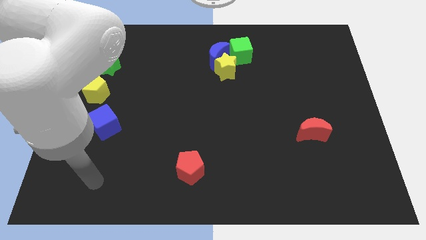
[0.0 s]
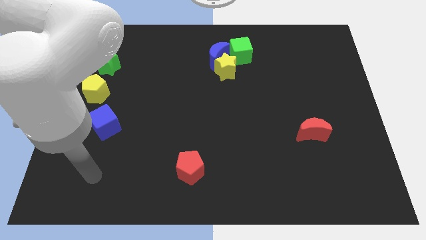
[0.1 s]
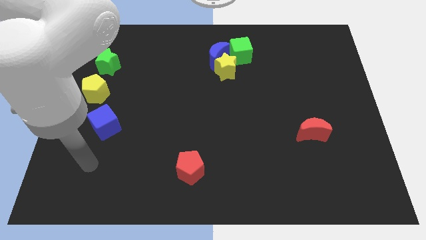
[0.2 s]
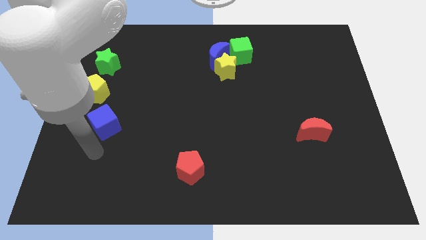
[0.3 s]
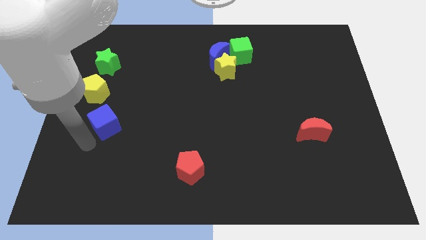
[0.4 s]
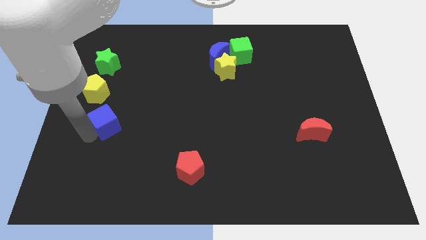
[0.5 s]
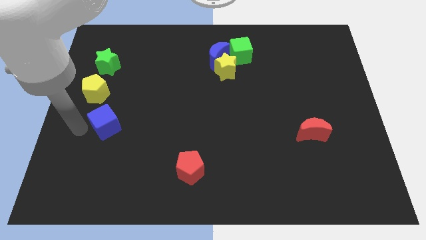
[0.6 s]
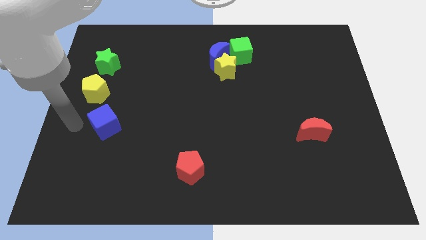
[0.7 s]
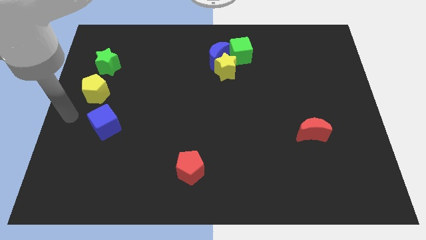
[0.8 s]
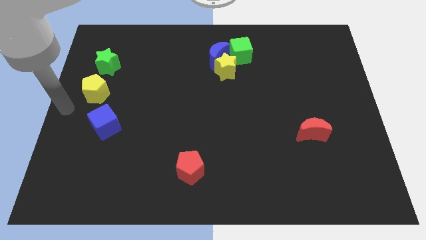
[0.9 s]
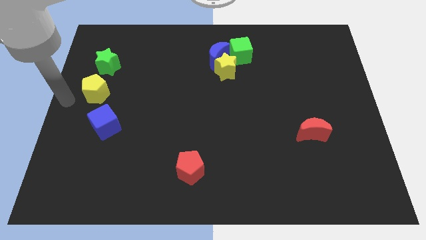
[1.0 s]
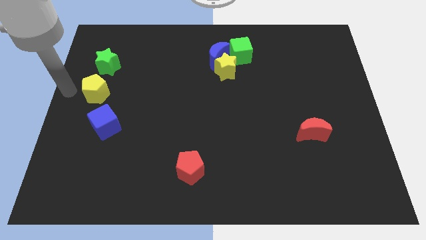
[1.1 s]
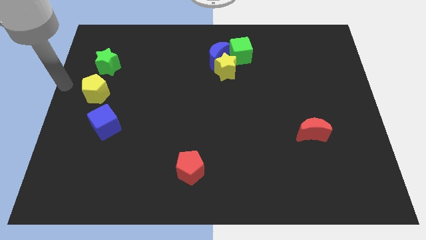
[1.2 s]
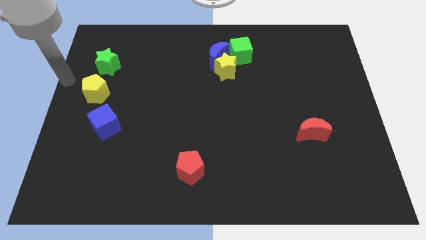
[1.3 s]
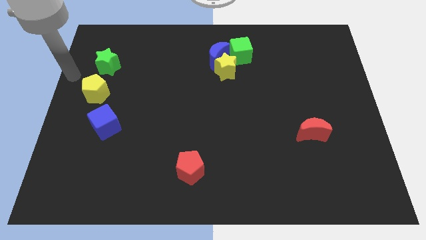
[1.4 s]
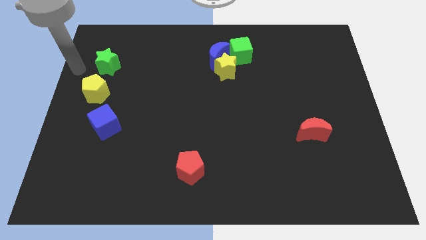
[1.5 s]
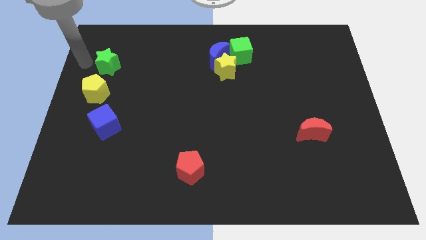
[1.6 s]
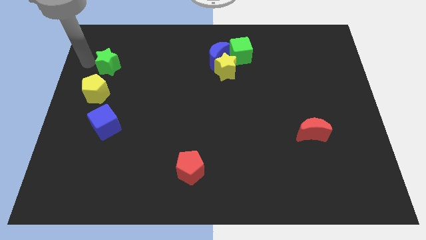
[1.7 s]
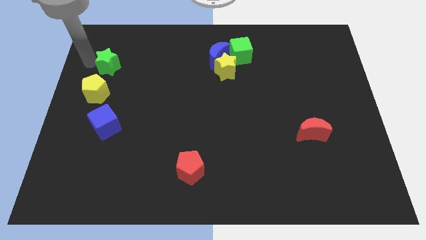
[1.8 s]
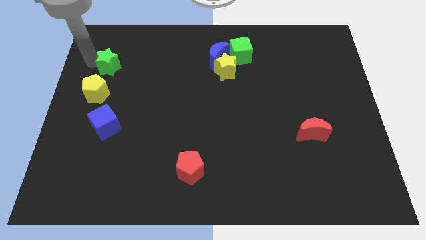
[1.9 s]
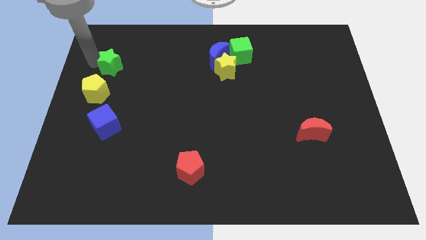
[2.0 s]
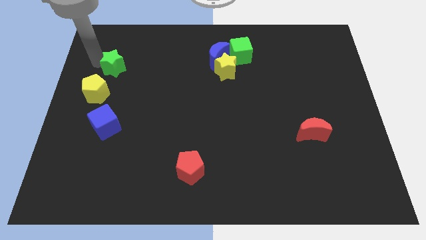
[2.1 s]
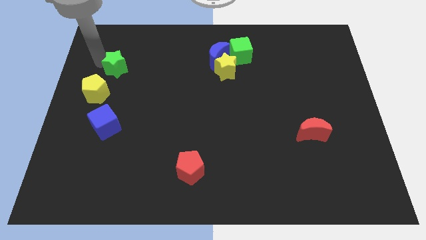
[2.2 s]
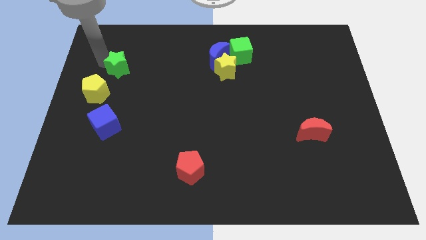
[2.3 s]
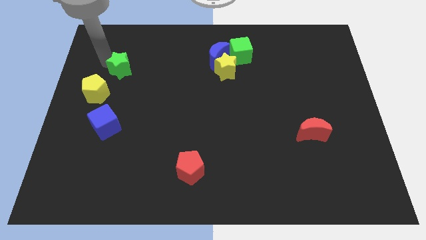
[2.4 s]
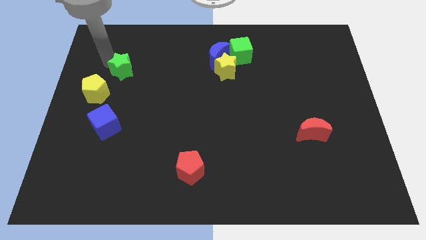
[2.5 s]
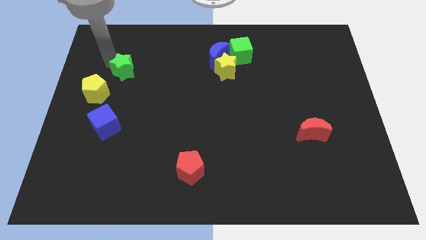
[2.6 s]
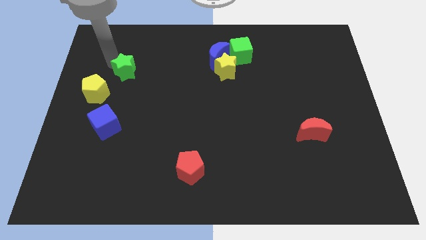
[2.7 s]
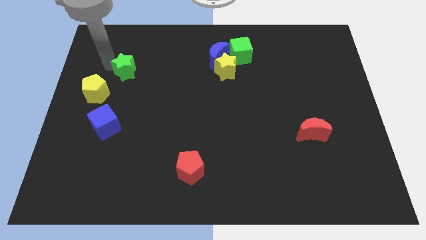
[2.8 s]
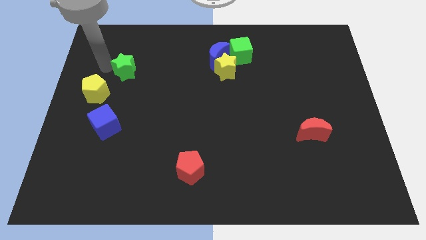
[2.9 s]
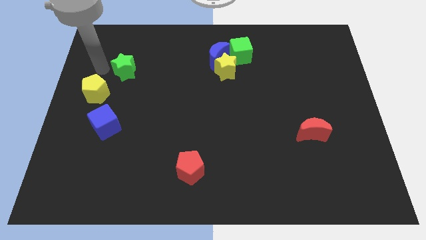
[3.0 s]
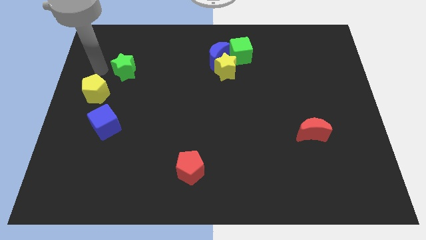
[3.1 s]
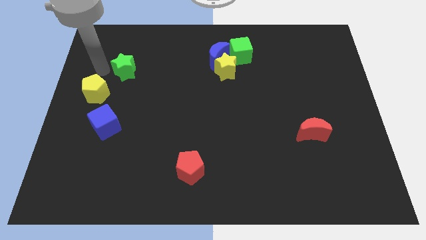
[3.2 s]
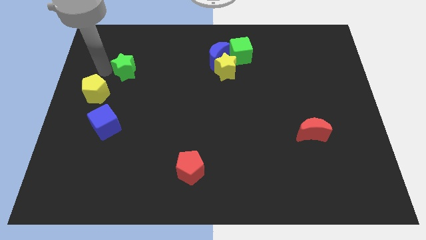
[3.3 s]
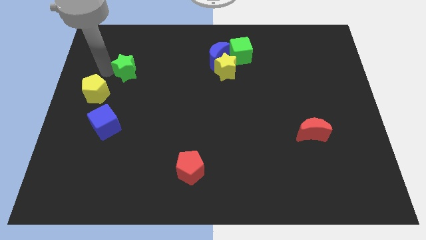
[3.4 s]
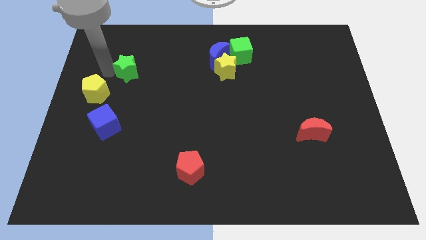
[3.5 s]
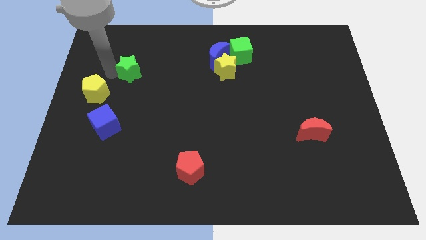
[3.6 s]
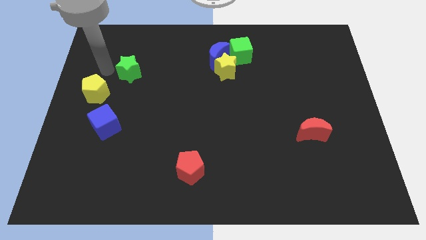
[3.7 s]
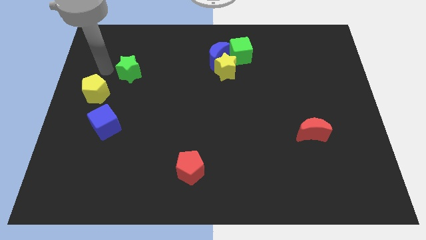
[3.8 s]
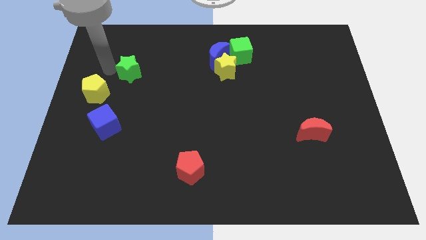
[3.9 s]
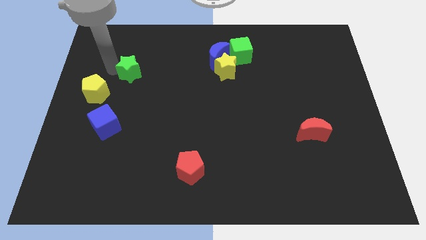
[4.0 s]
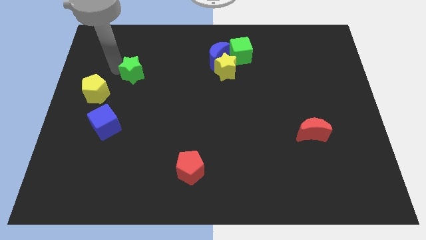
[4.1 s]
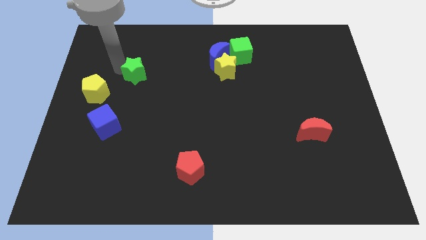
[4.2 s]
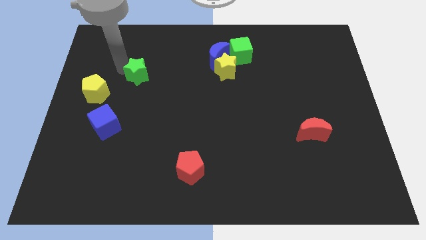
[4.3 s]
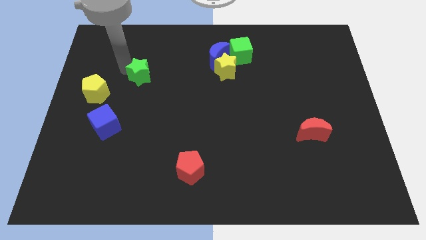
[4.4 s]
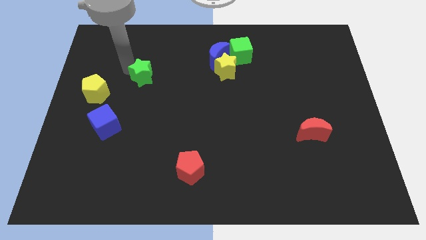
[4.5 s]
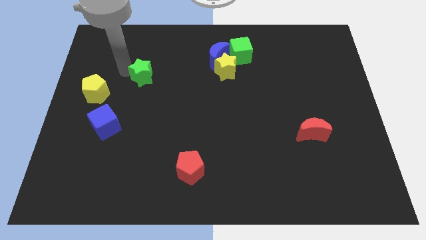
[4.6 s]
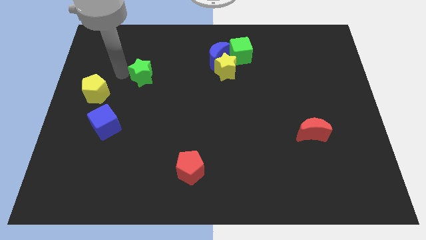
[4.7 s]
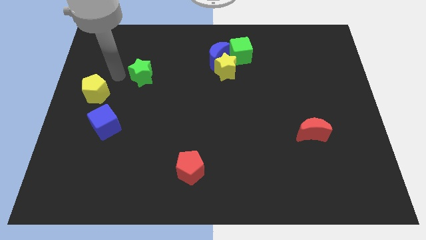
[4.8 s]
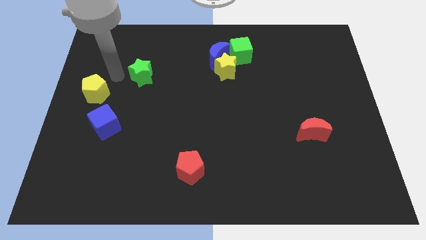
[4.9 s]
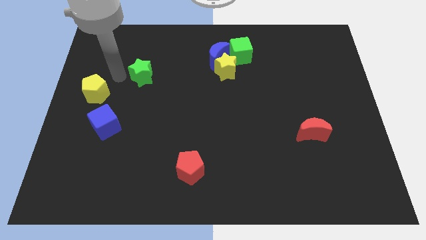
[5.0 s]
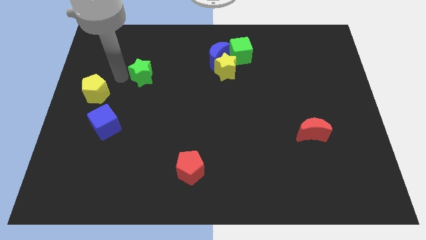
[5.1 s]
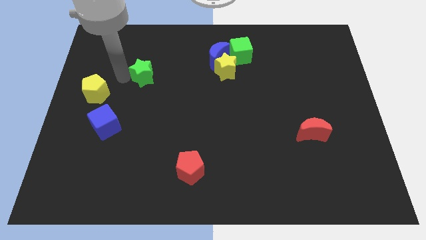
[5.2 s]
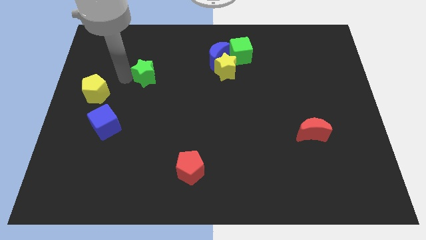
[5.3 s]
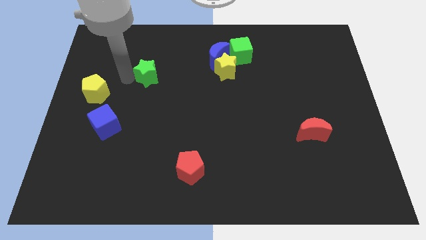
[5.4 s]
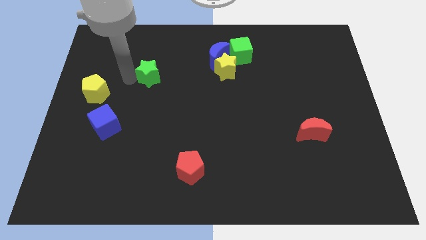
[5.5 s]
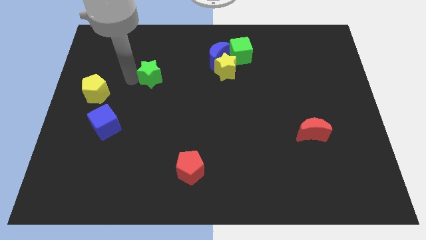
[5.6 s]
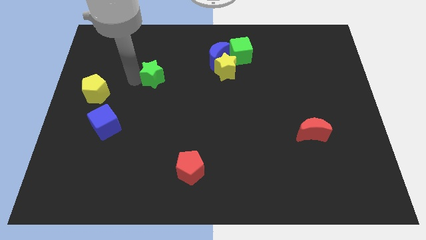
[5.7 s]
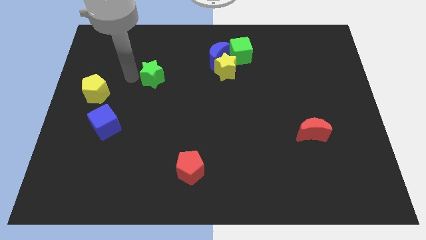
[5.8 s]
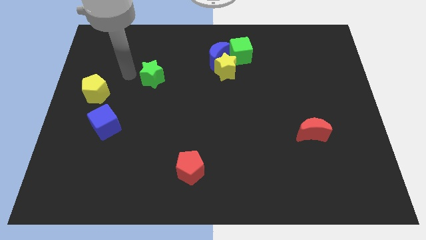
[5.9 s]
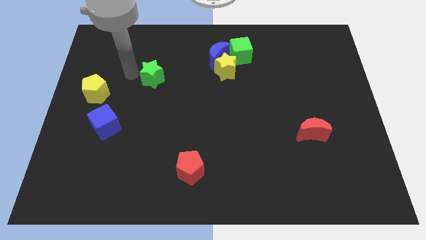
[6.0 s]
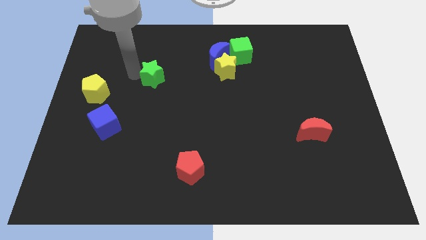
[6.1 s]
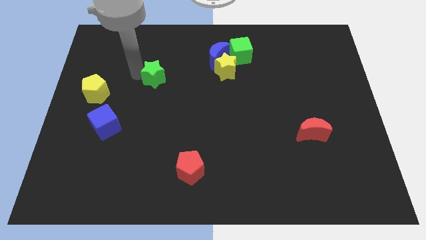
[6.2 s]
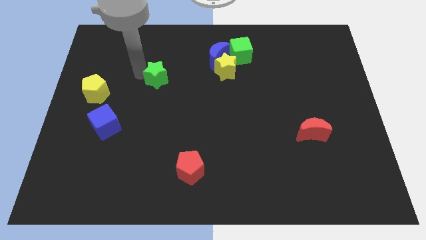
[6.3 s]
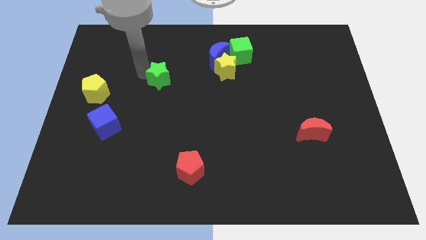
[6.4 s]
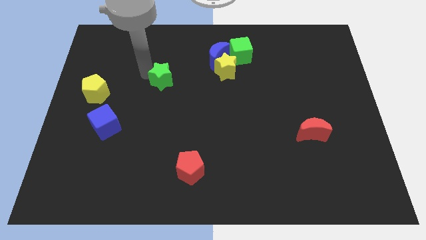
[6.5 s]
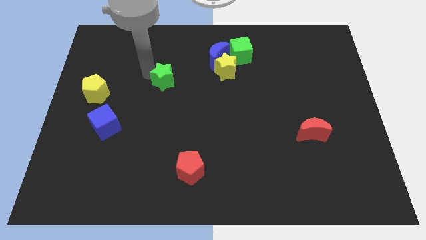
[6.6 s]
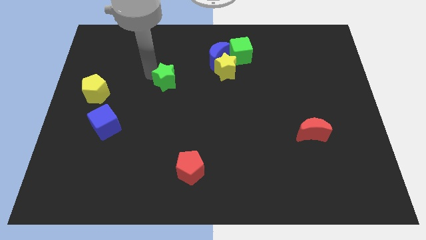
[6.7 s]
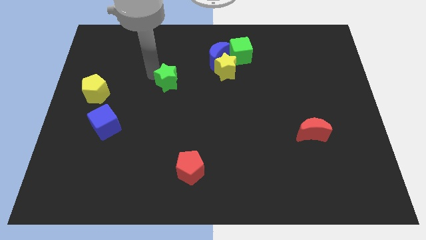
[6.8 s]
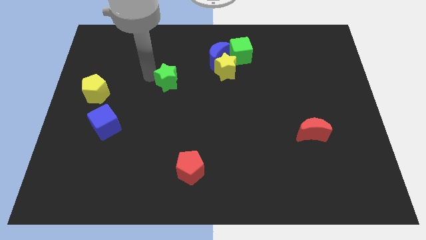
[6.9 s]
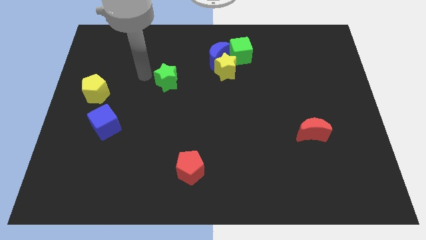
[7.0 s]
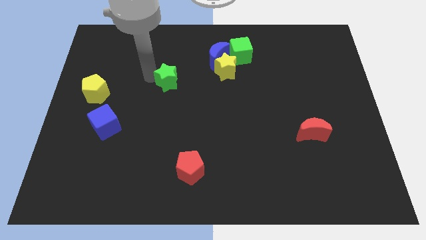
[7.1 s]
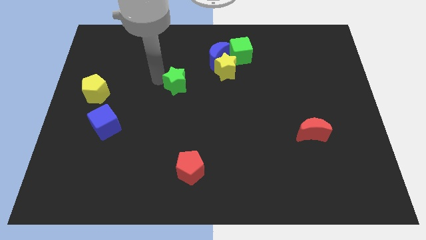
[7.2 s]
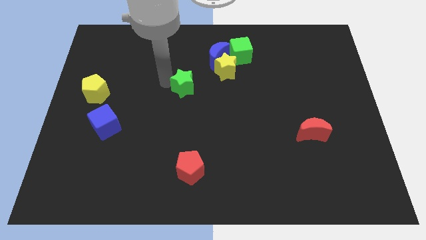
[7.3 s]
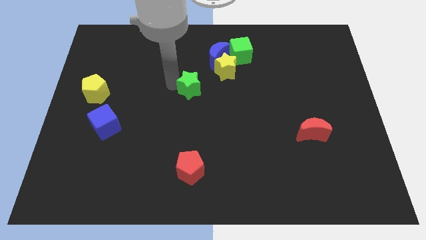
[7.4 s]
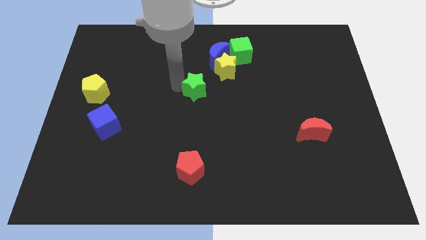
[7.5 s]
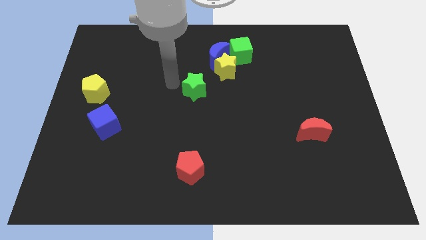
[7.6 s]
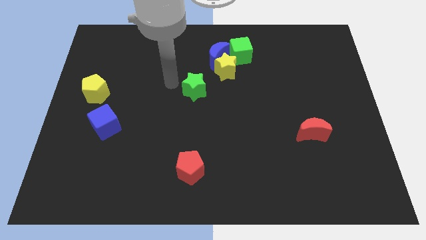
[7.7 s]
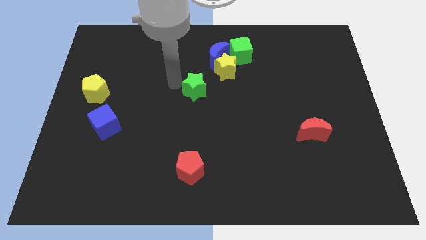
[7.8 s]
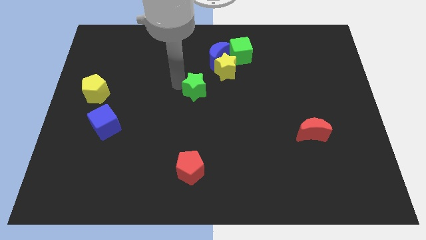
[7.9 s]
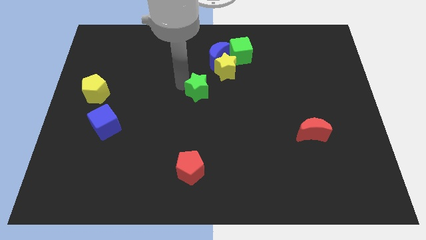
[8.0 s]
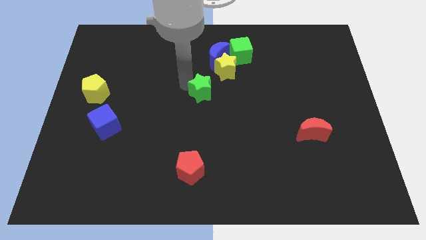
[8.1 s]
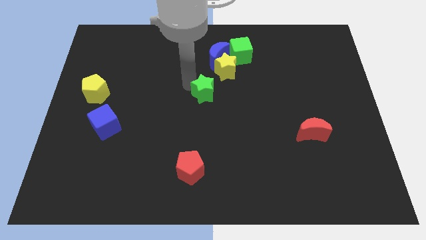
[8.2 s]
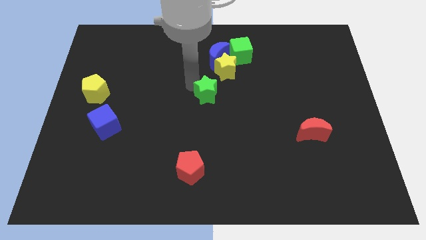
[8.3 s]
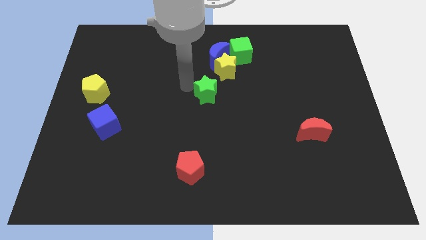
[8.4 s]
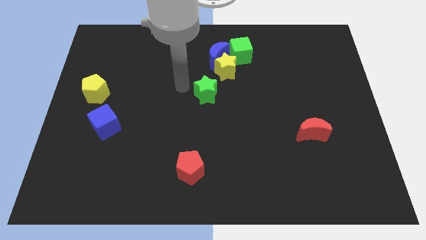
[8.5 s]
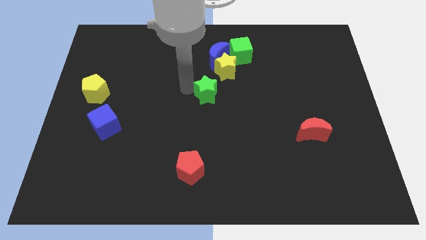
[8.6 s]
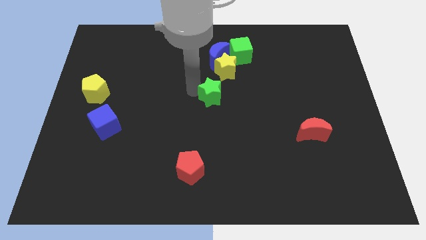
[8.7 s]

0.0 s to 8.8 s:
slide the green star to the bottom side of the yellow star
